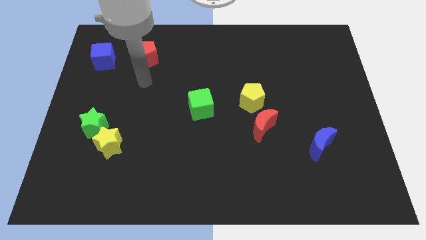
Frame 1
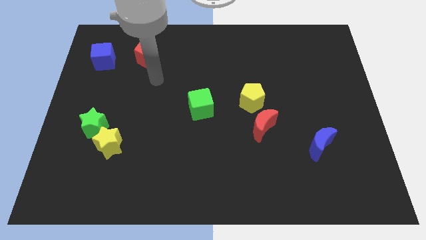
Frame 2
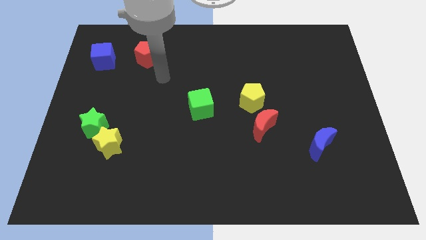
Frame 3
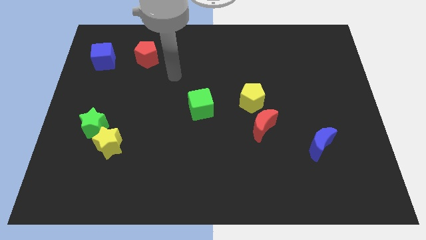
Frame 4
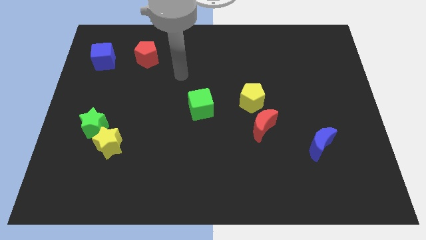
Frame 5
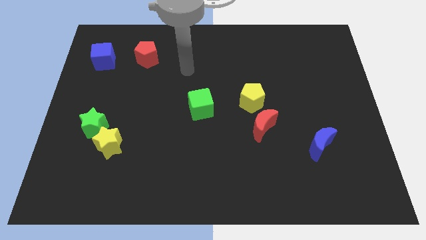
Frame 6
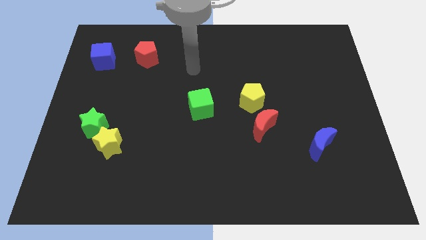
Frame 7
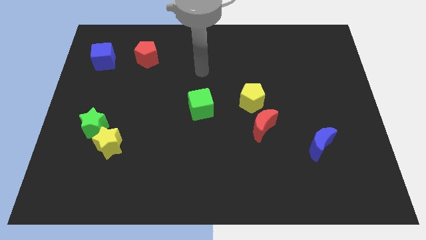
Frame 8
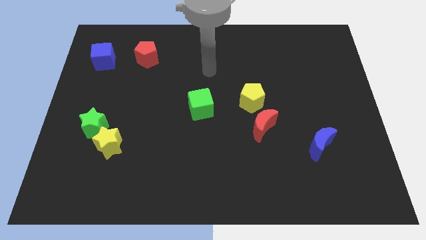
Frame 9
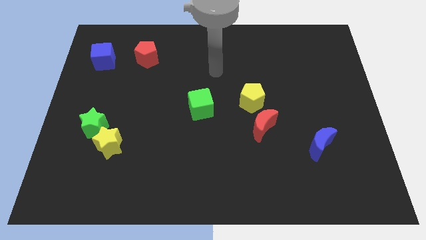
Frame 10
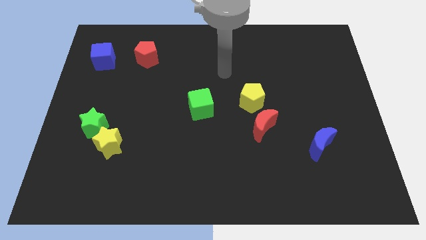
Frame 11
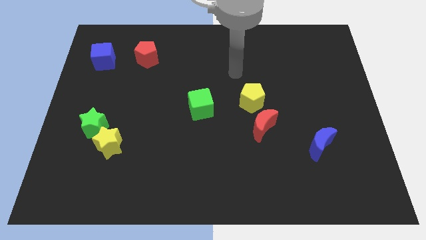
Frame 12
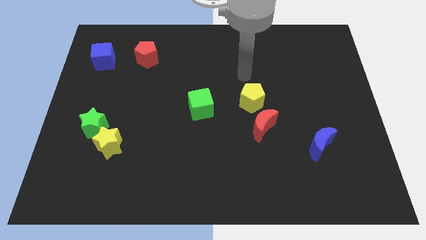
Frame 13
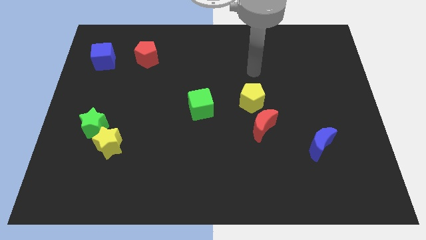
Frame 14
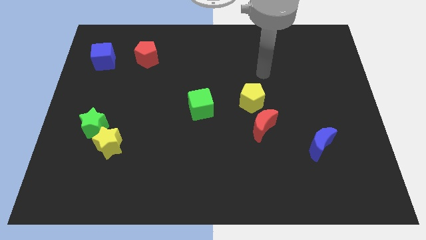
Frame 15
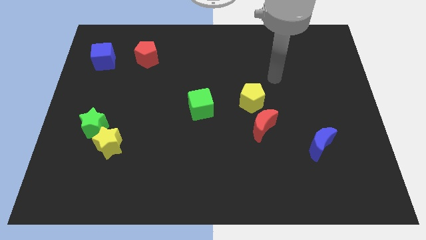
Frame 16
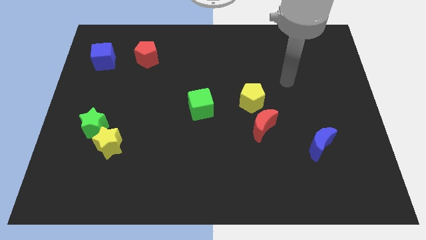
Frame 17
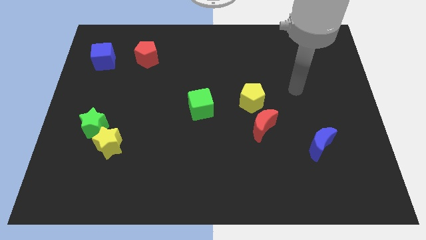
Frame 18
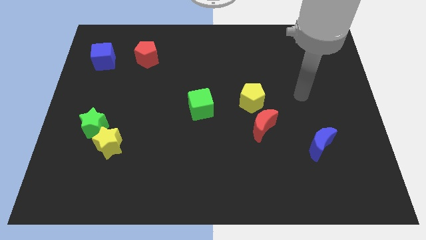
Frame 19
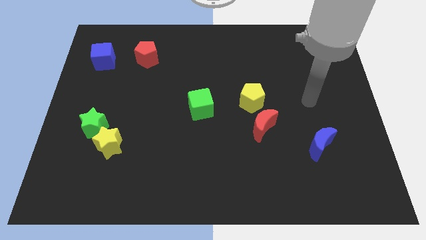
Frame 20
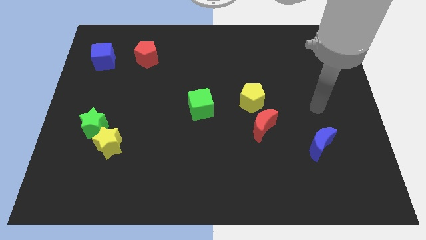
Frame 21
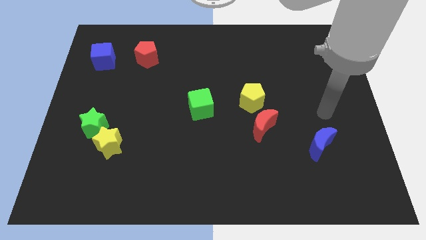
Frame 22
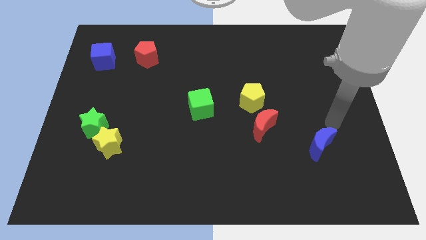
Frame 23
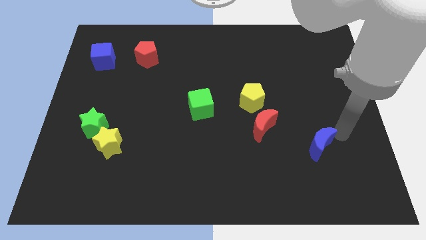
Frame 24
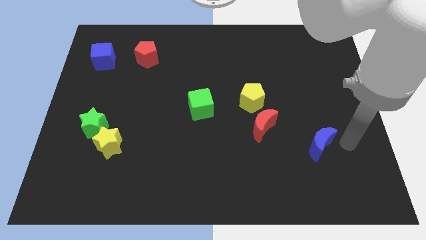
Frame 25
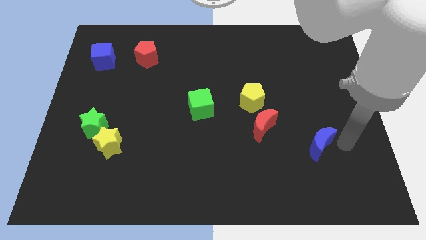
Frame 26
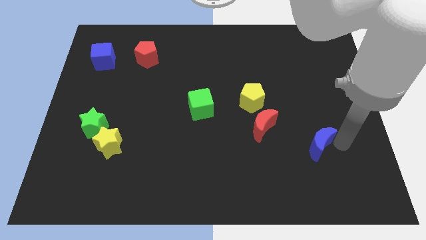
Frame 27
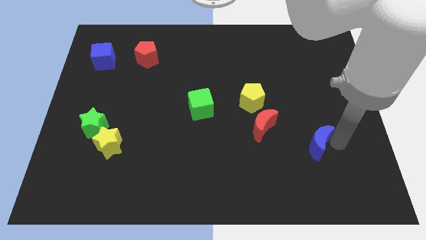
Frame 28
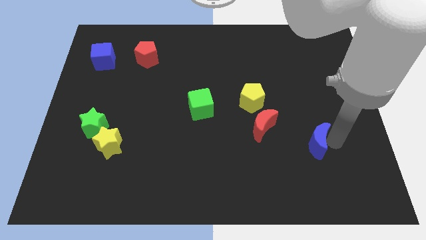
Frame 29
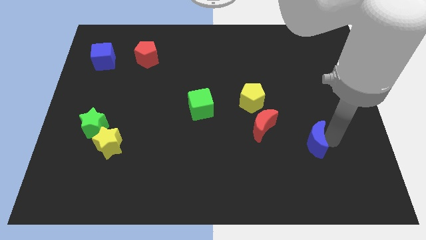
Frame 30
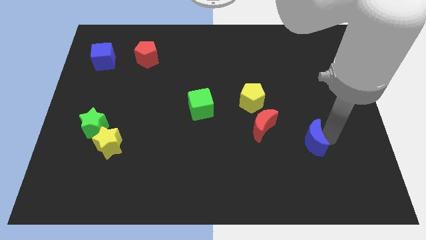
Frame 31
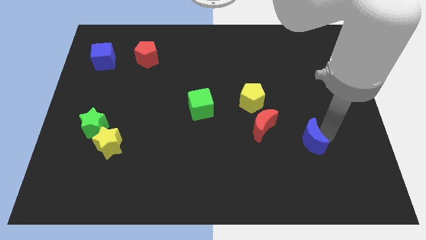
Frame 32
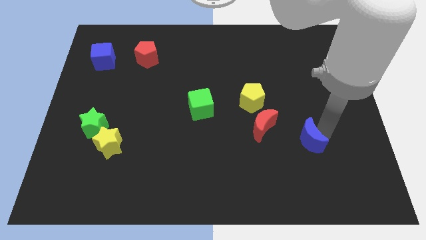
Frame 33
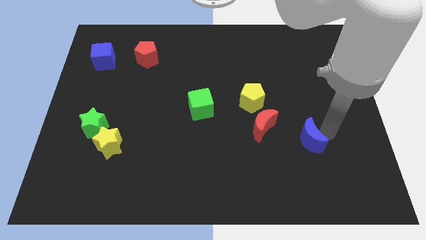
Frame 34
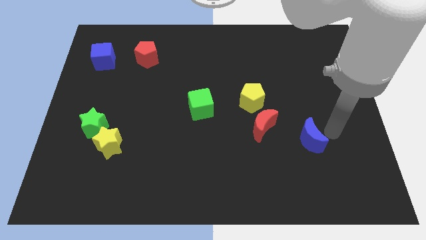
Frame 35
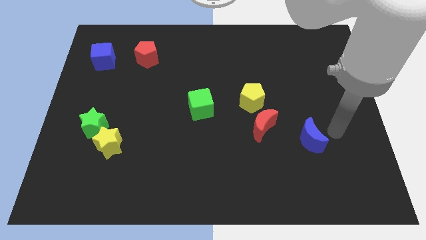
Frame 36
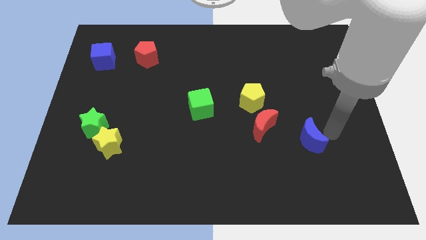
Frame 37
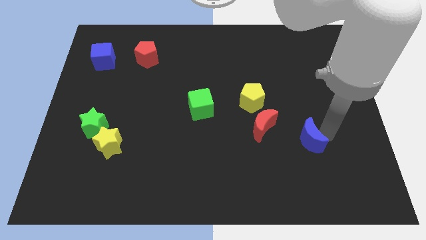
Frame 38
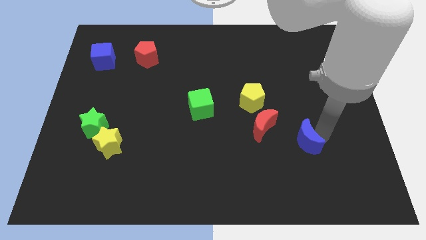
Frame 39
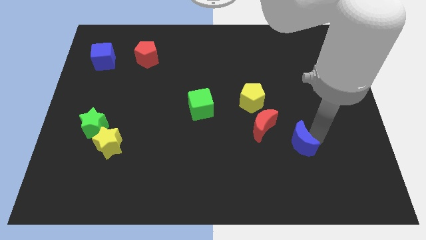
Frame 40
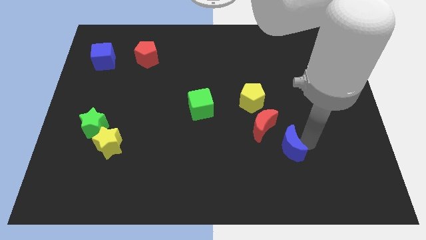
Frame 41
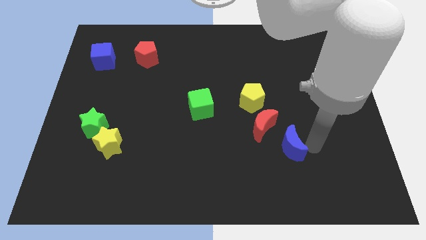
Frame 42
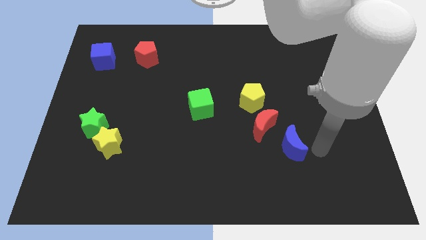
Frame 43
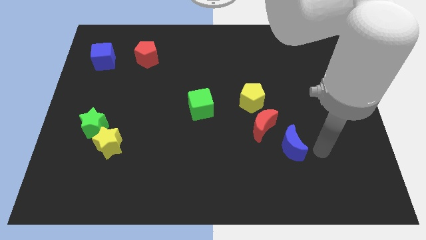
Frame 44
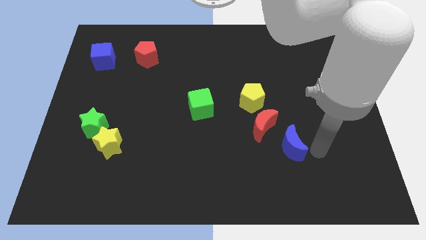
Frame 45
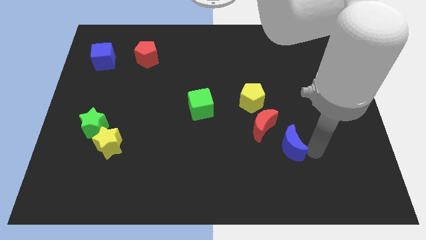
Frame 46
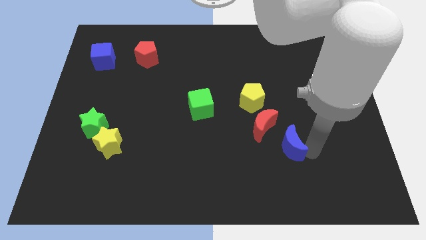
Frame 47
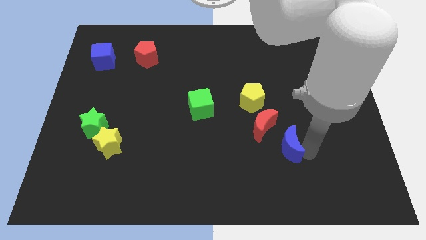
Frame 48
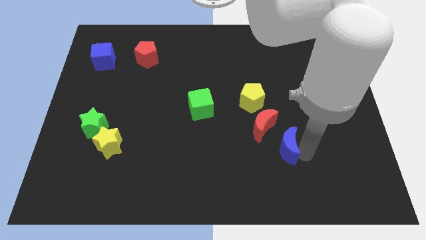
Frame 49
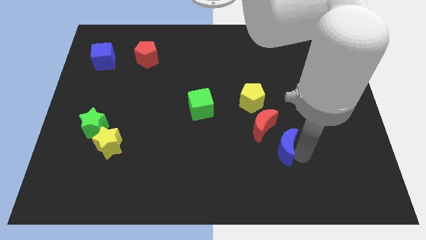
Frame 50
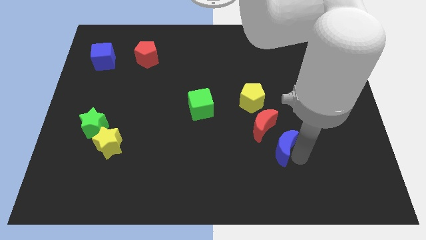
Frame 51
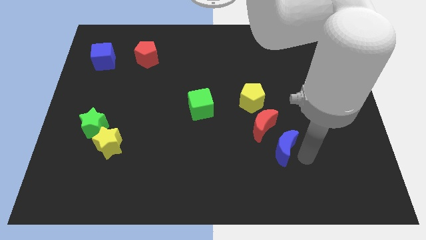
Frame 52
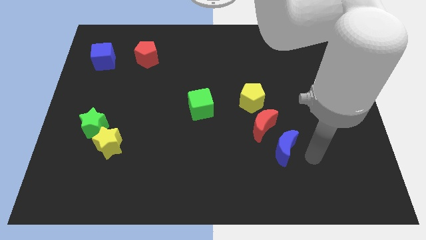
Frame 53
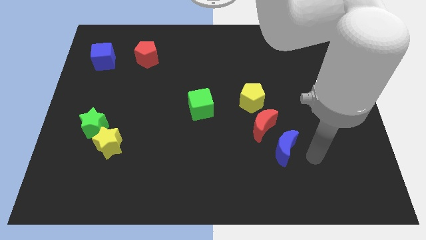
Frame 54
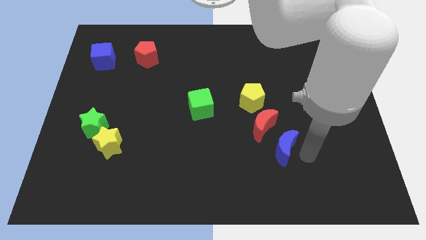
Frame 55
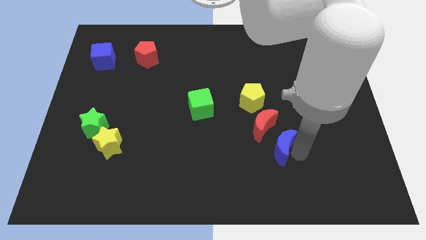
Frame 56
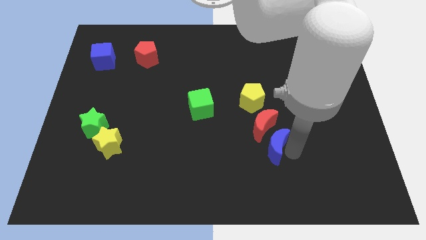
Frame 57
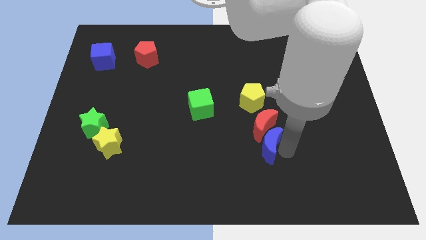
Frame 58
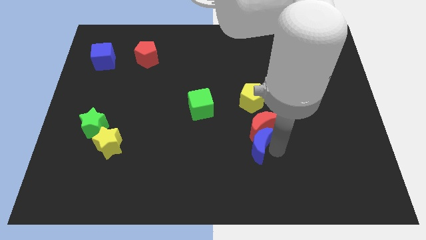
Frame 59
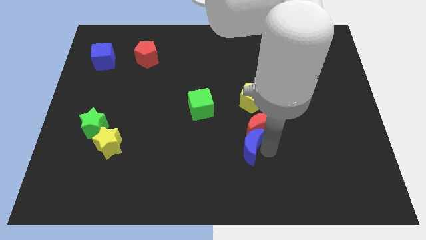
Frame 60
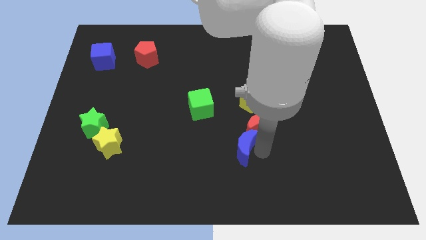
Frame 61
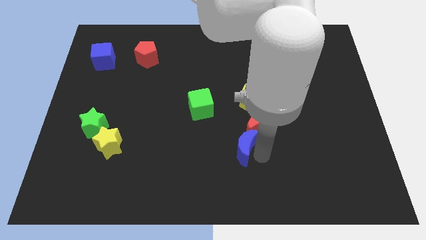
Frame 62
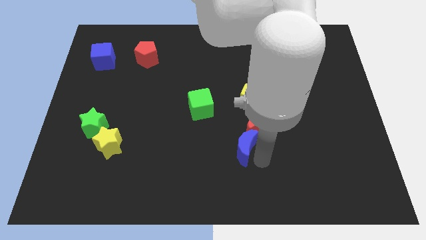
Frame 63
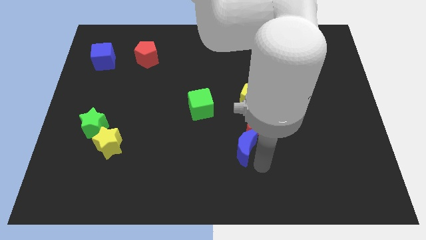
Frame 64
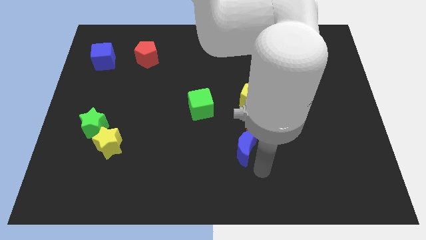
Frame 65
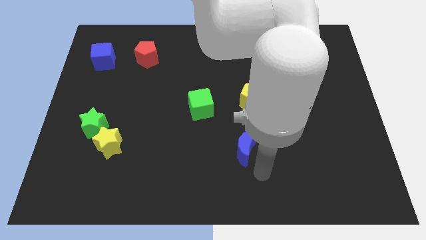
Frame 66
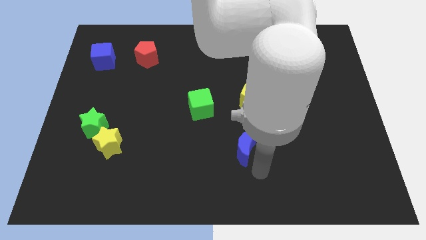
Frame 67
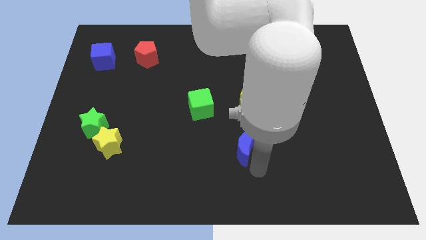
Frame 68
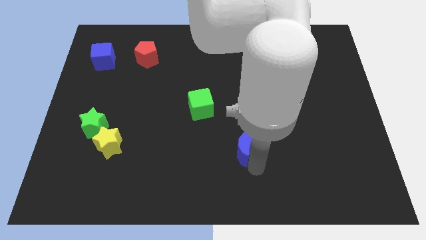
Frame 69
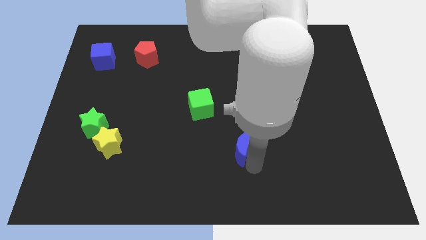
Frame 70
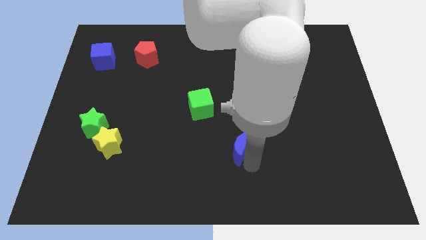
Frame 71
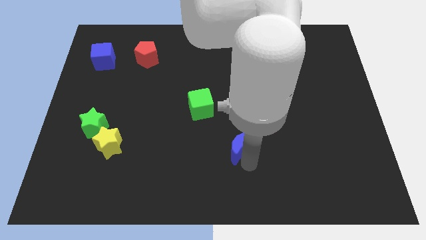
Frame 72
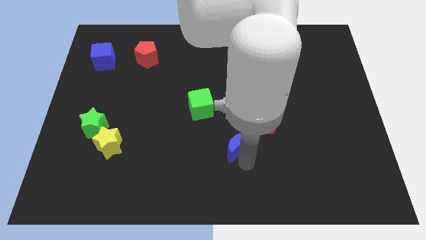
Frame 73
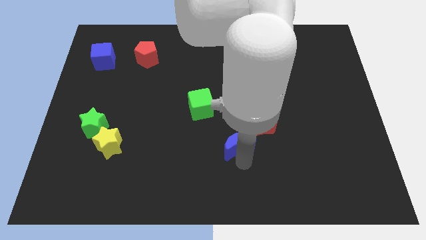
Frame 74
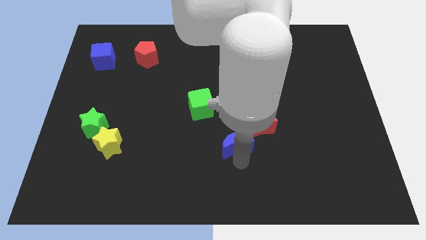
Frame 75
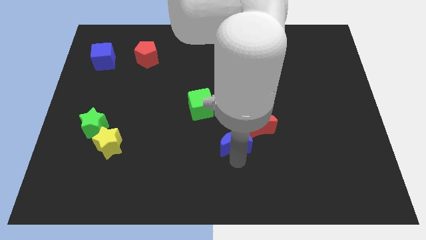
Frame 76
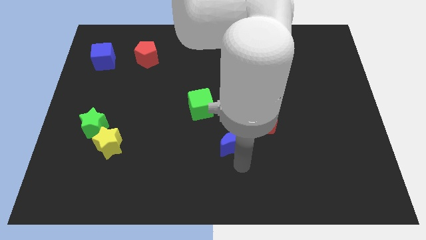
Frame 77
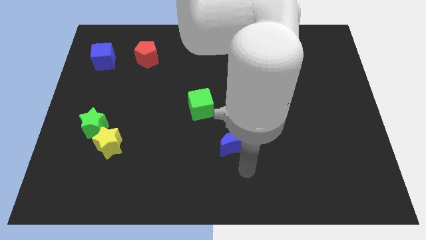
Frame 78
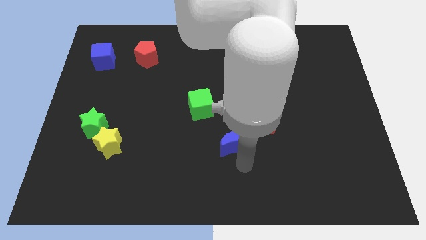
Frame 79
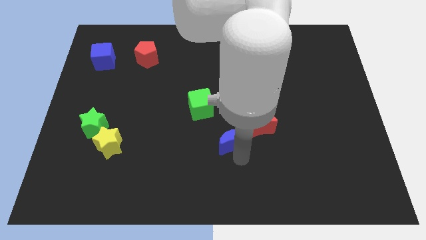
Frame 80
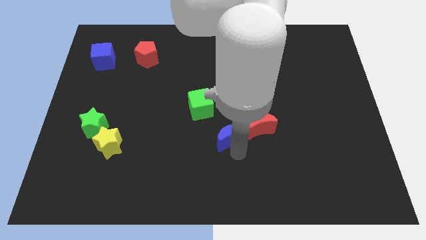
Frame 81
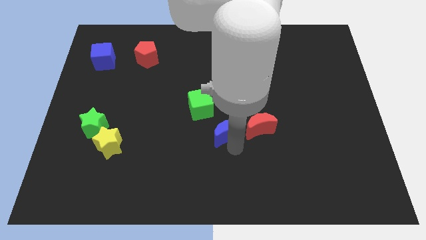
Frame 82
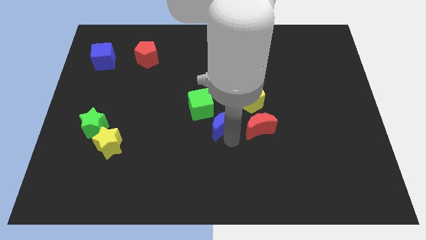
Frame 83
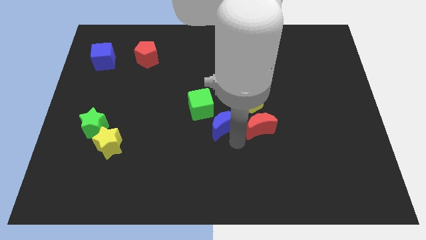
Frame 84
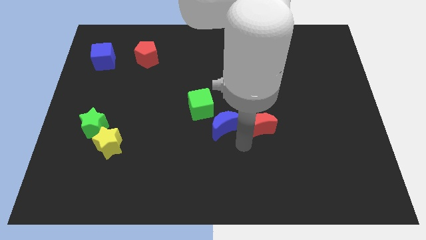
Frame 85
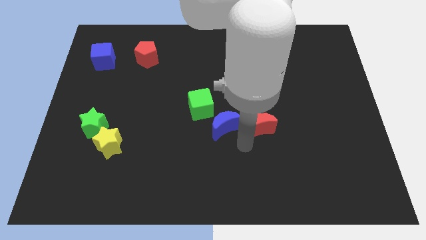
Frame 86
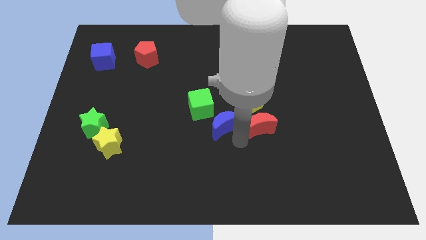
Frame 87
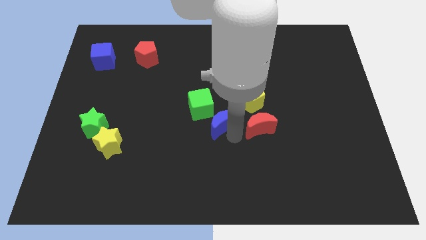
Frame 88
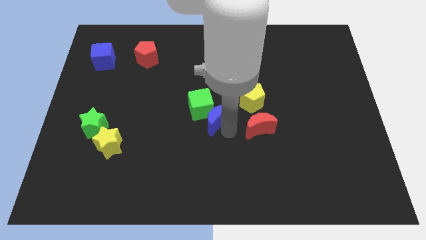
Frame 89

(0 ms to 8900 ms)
slide the blue moon towards the green cube
